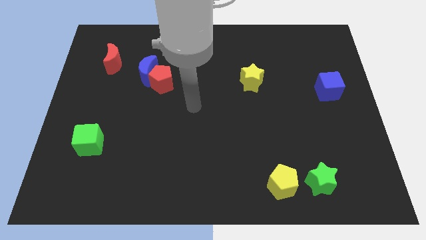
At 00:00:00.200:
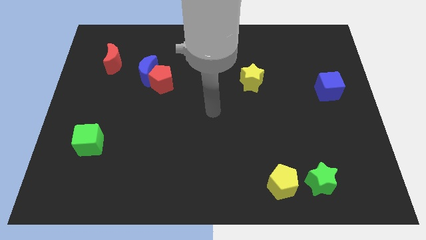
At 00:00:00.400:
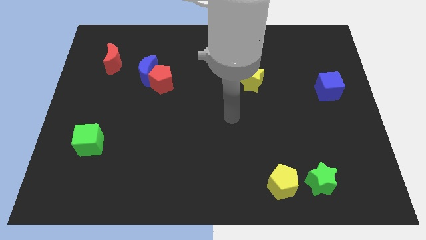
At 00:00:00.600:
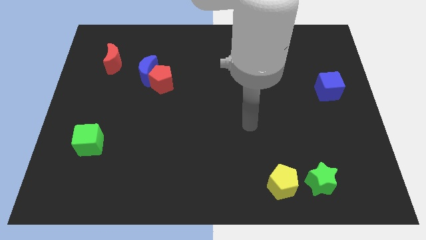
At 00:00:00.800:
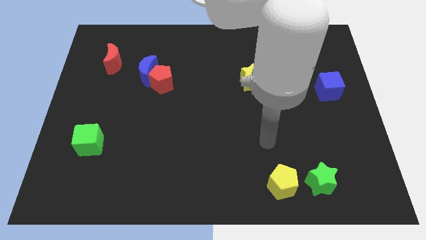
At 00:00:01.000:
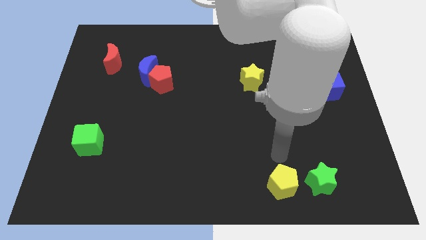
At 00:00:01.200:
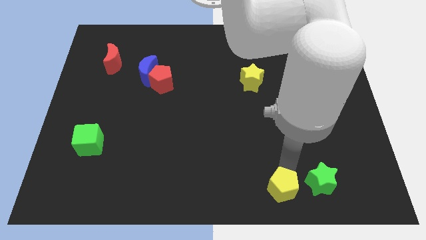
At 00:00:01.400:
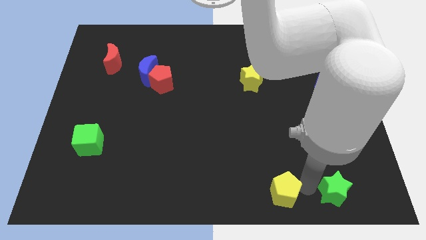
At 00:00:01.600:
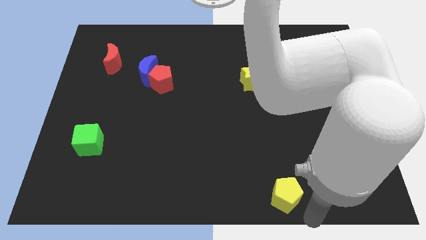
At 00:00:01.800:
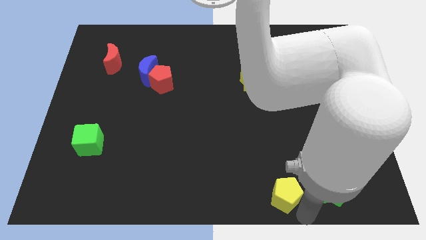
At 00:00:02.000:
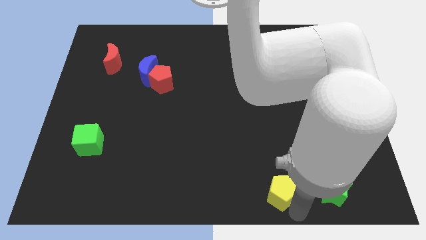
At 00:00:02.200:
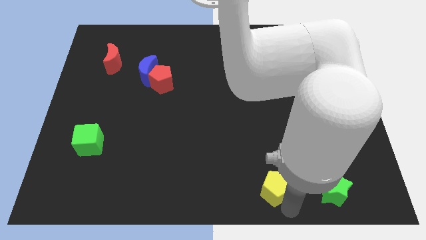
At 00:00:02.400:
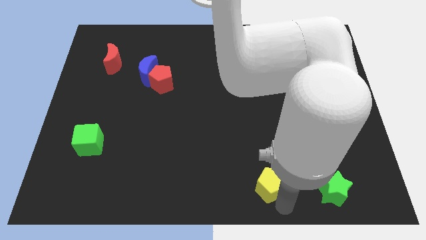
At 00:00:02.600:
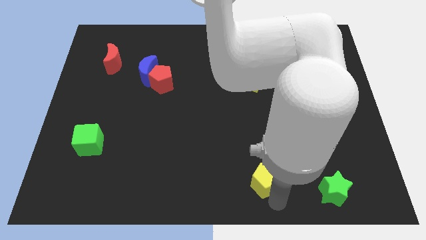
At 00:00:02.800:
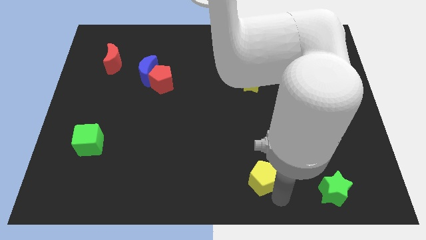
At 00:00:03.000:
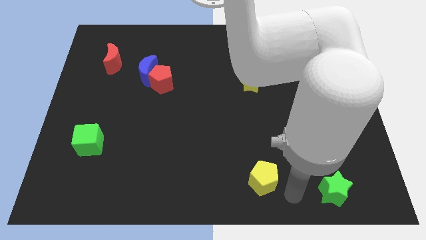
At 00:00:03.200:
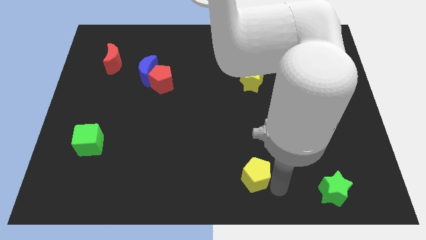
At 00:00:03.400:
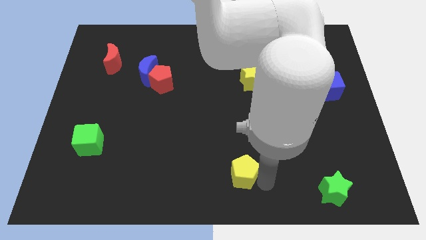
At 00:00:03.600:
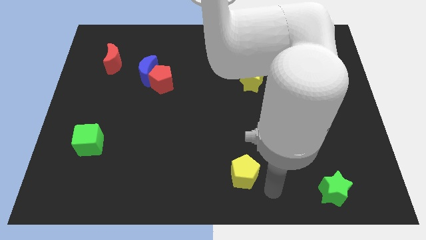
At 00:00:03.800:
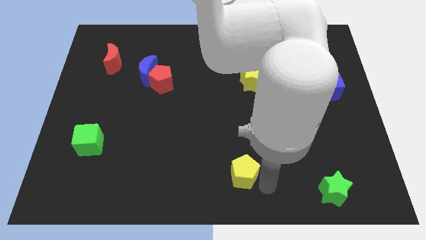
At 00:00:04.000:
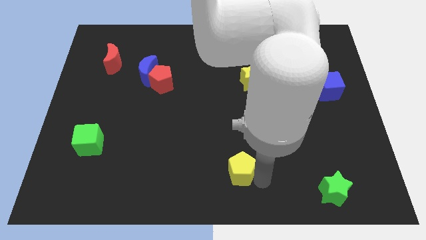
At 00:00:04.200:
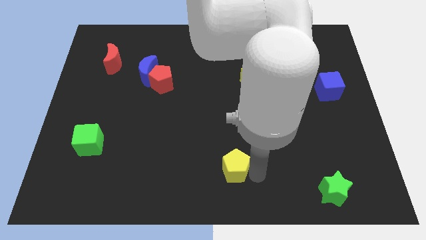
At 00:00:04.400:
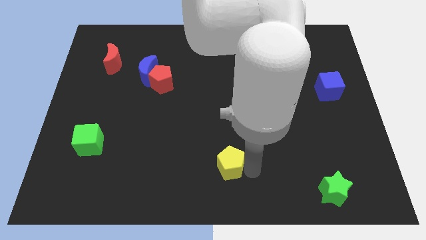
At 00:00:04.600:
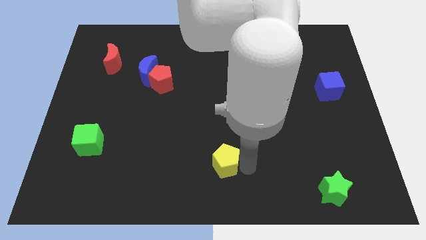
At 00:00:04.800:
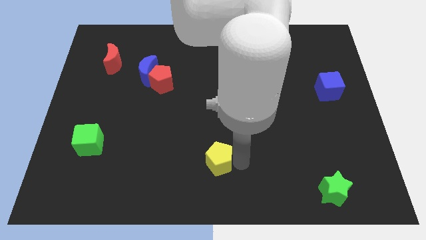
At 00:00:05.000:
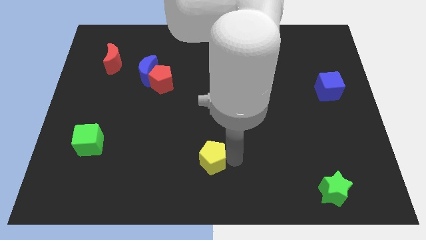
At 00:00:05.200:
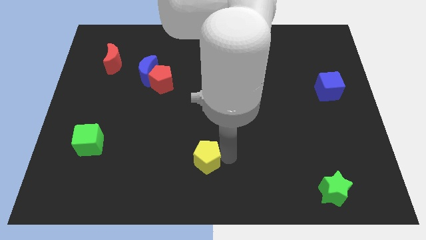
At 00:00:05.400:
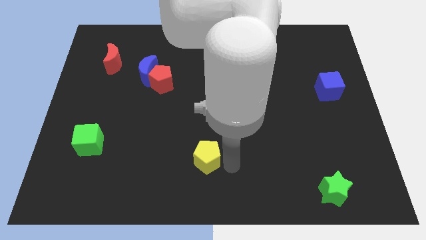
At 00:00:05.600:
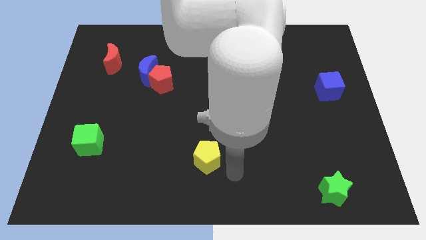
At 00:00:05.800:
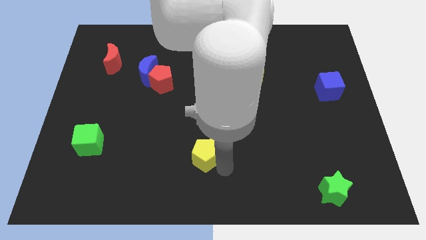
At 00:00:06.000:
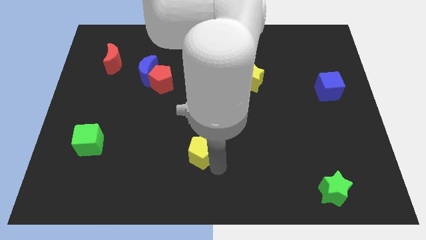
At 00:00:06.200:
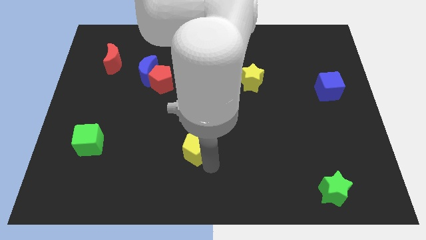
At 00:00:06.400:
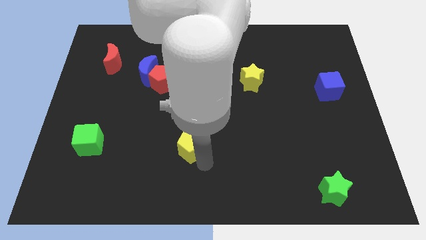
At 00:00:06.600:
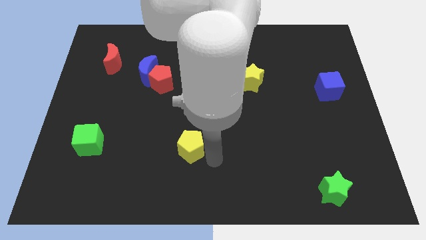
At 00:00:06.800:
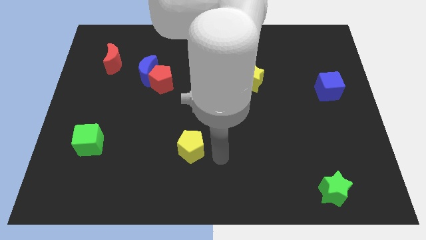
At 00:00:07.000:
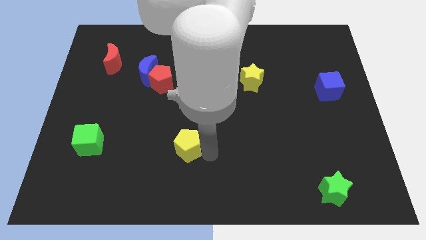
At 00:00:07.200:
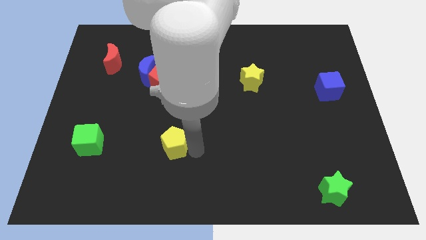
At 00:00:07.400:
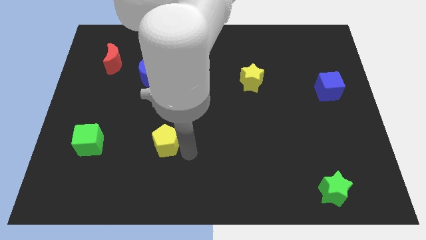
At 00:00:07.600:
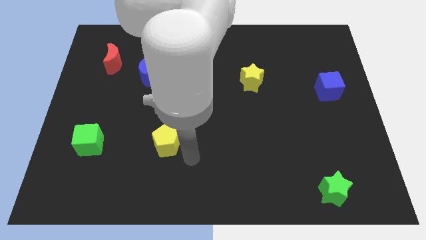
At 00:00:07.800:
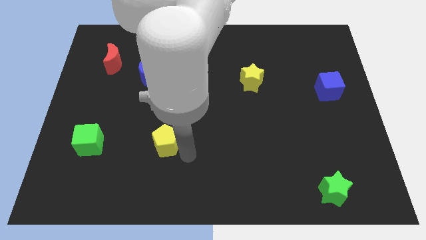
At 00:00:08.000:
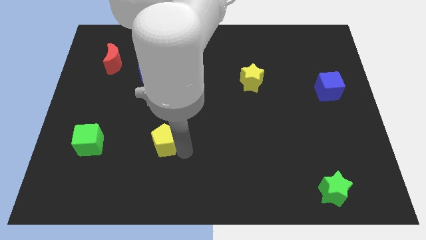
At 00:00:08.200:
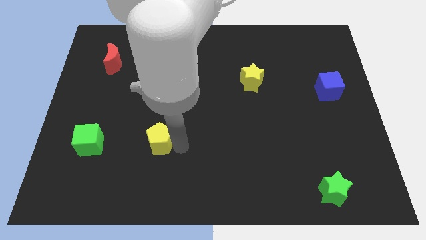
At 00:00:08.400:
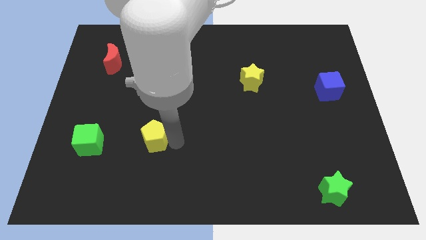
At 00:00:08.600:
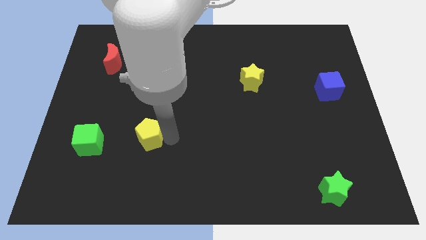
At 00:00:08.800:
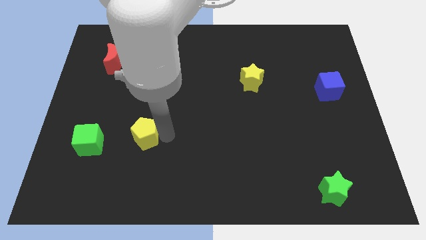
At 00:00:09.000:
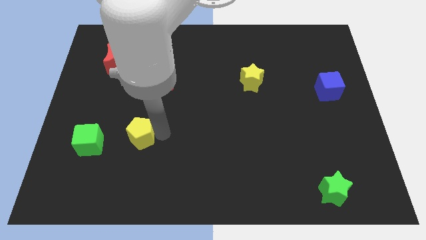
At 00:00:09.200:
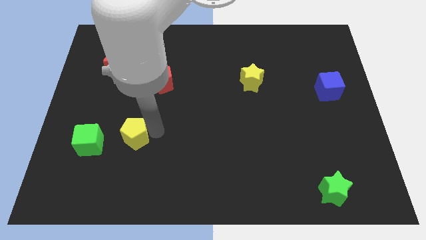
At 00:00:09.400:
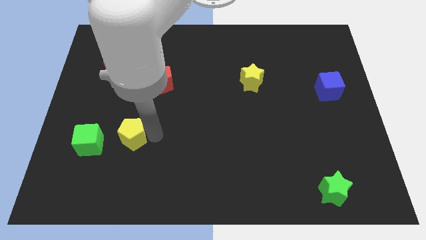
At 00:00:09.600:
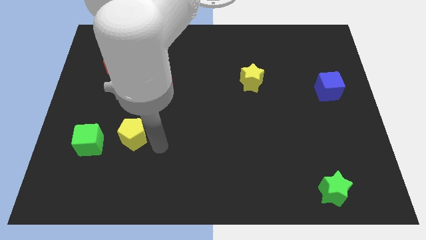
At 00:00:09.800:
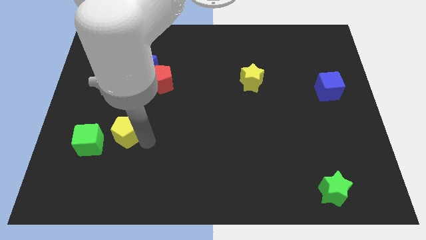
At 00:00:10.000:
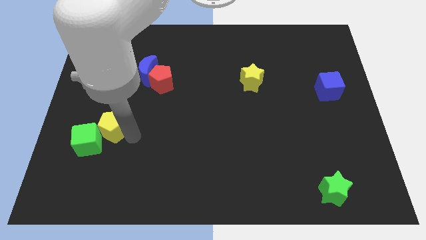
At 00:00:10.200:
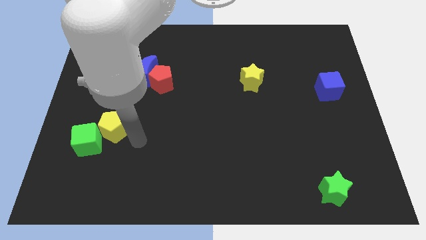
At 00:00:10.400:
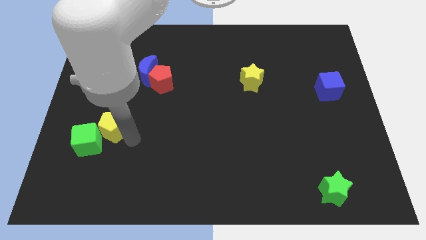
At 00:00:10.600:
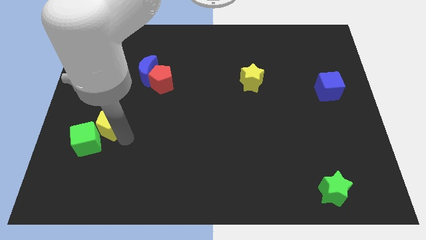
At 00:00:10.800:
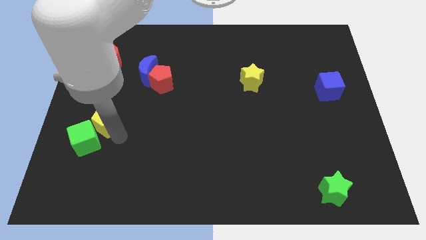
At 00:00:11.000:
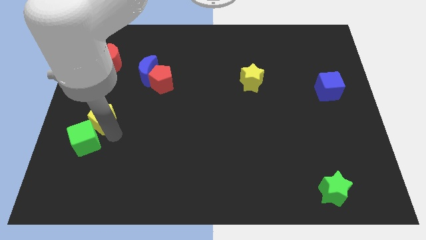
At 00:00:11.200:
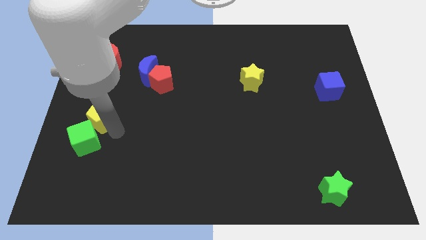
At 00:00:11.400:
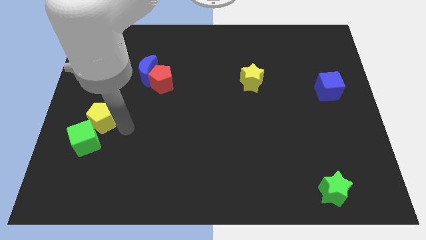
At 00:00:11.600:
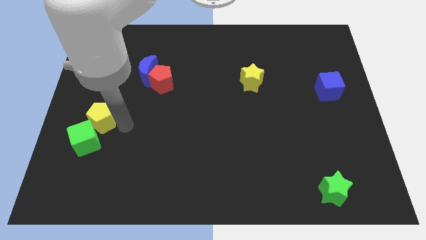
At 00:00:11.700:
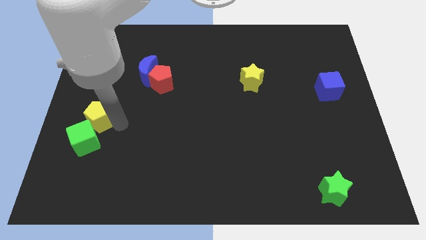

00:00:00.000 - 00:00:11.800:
push the yellow pentagon to the left side

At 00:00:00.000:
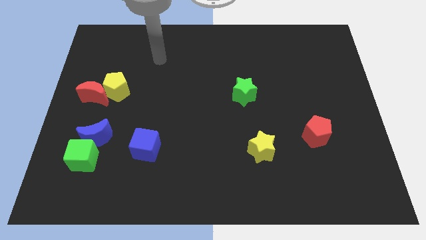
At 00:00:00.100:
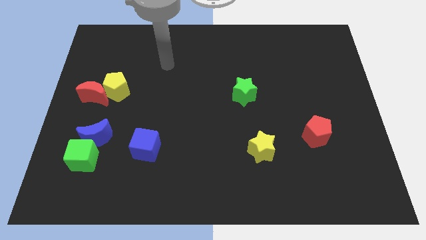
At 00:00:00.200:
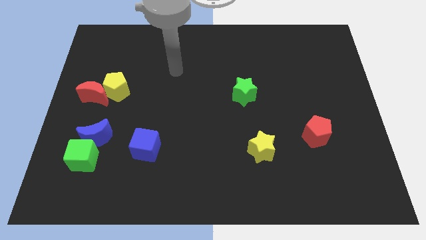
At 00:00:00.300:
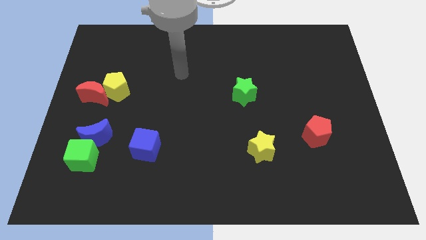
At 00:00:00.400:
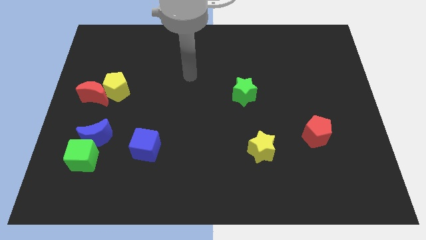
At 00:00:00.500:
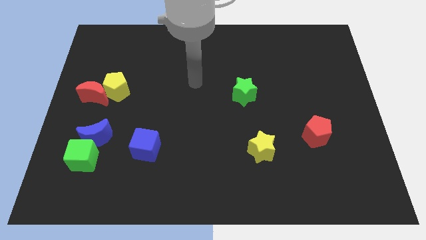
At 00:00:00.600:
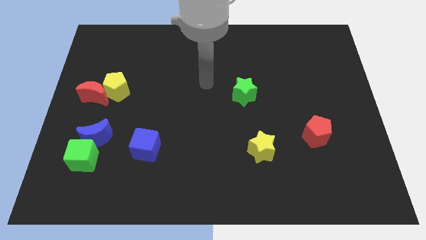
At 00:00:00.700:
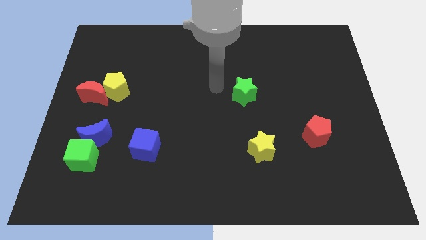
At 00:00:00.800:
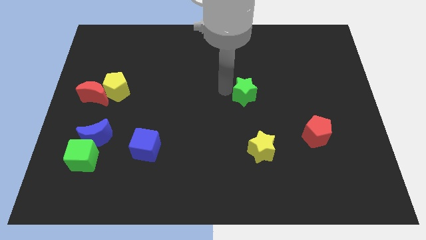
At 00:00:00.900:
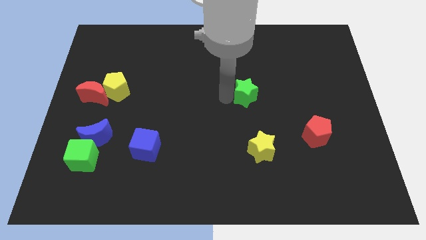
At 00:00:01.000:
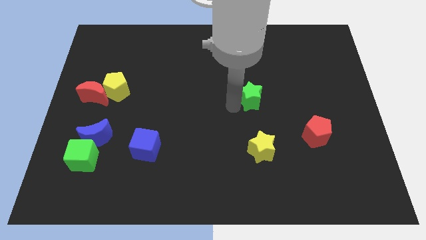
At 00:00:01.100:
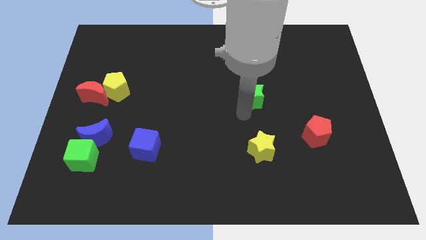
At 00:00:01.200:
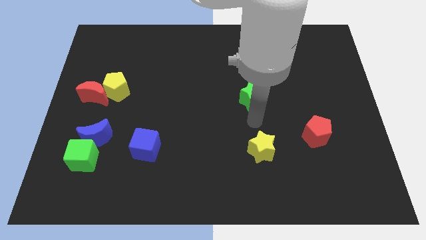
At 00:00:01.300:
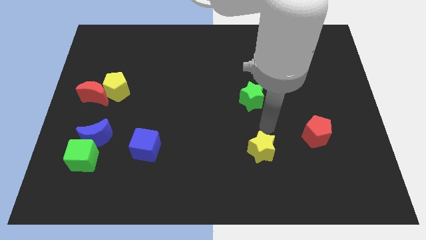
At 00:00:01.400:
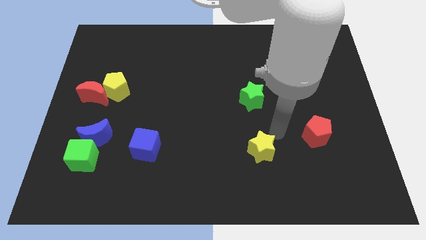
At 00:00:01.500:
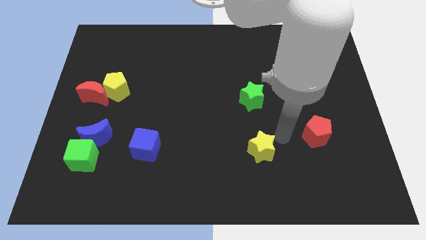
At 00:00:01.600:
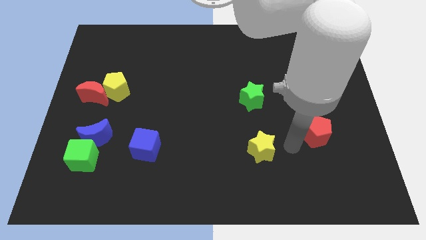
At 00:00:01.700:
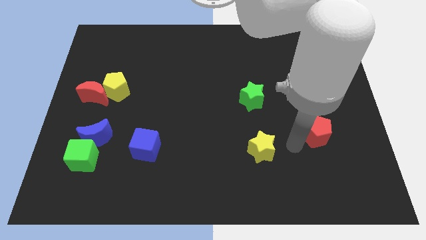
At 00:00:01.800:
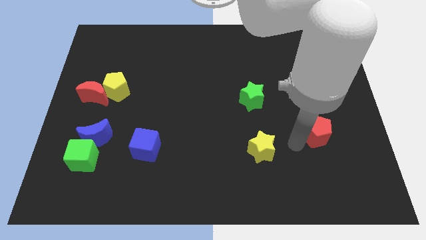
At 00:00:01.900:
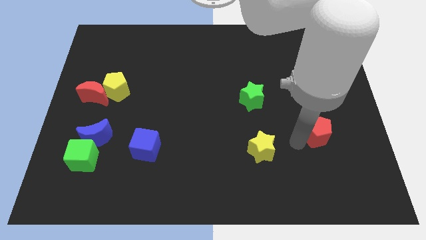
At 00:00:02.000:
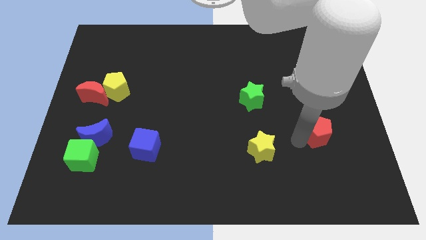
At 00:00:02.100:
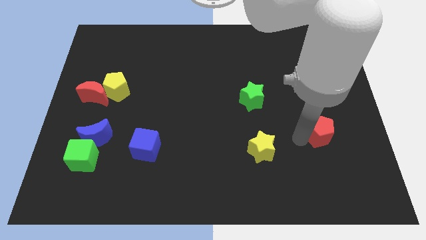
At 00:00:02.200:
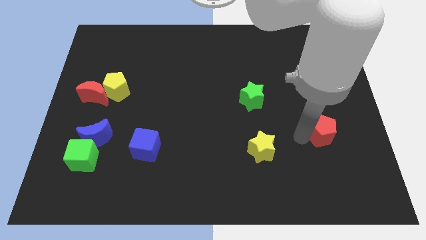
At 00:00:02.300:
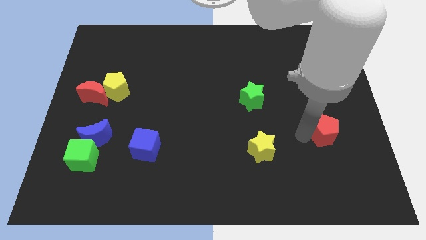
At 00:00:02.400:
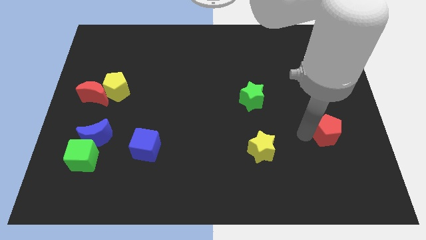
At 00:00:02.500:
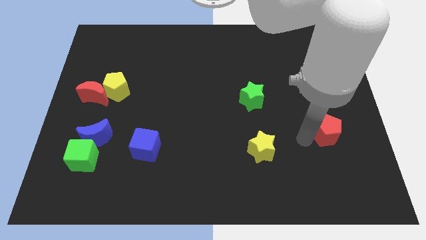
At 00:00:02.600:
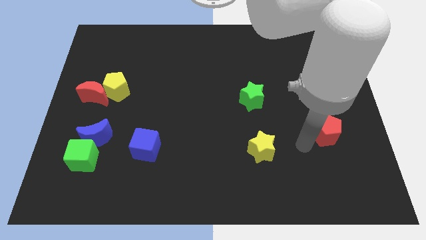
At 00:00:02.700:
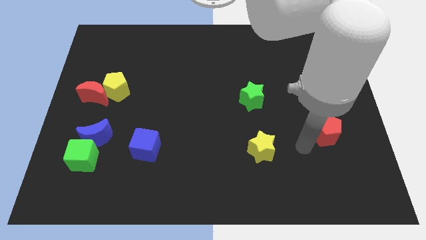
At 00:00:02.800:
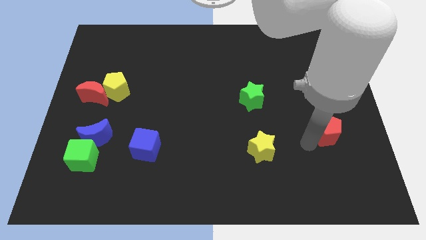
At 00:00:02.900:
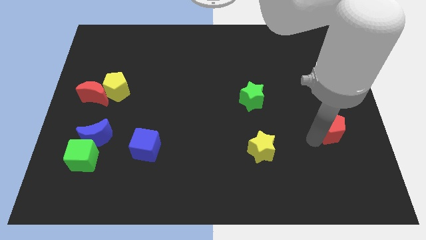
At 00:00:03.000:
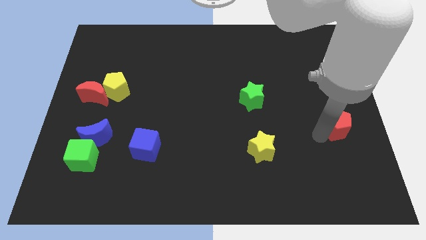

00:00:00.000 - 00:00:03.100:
slide the red pentagon to the center right
